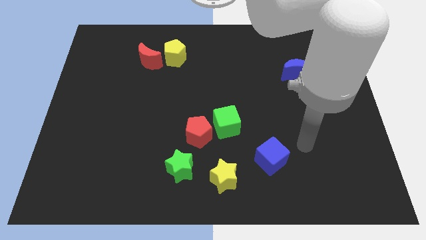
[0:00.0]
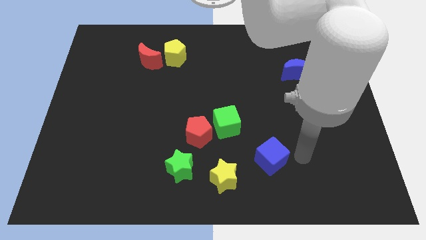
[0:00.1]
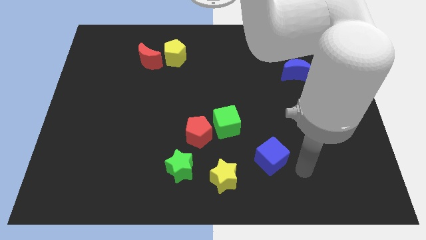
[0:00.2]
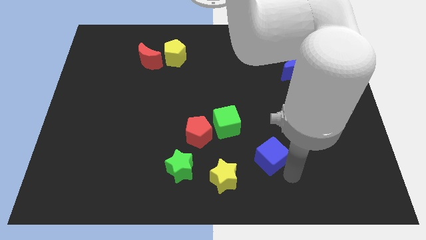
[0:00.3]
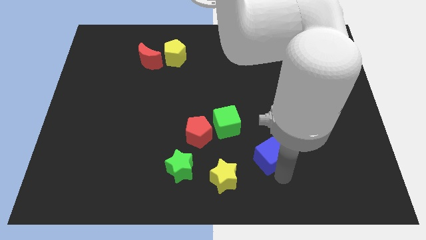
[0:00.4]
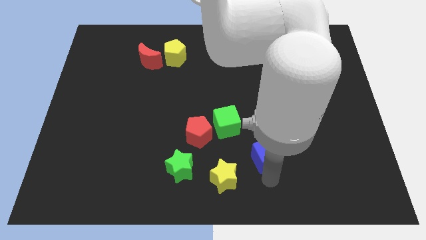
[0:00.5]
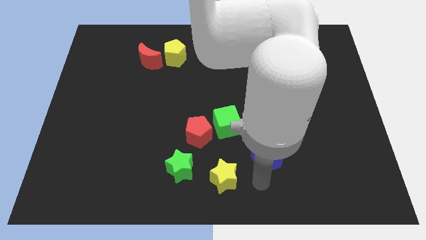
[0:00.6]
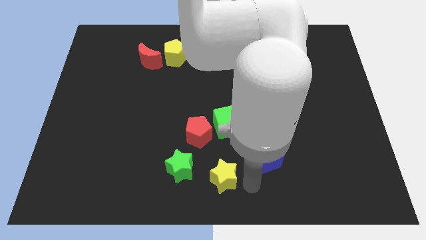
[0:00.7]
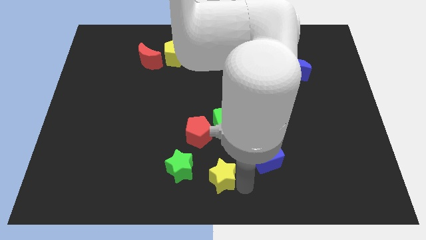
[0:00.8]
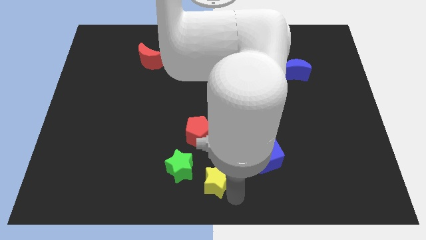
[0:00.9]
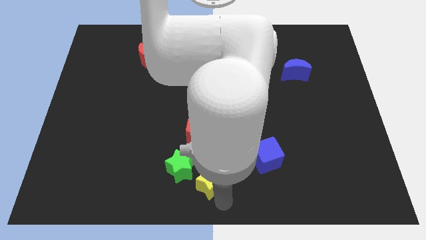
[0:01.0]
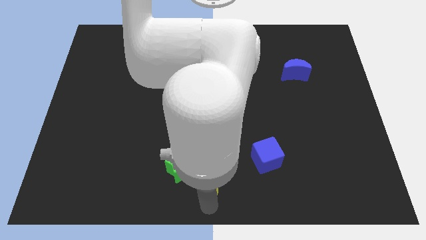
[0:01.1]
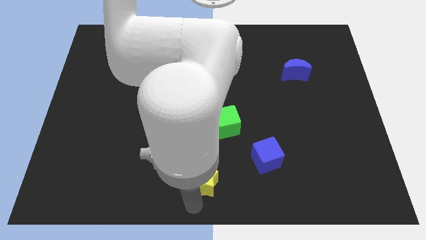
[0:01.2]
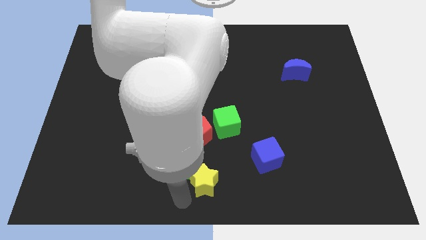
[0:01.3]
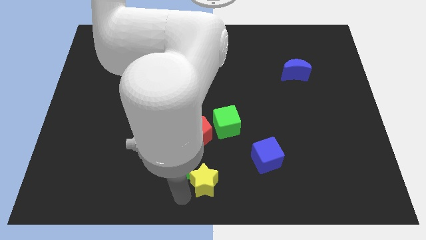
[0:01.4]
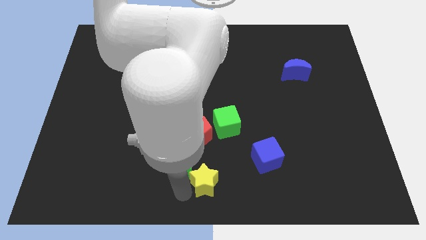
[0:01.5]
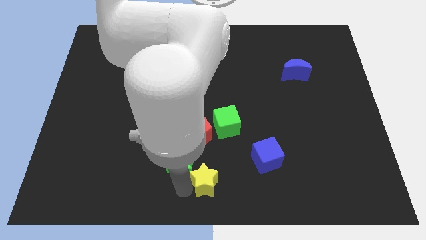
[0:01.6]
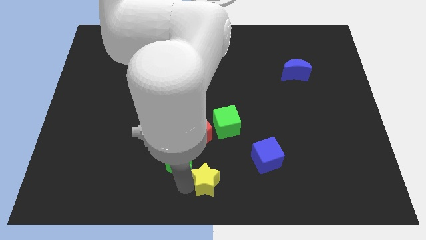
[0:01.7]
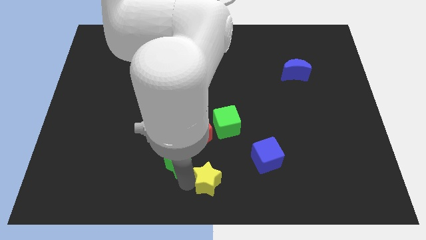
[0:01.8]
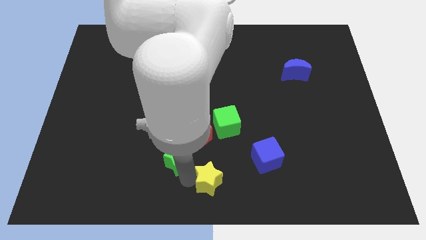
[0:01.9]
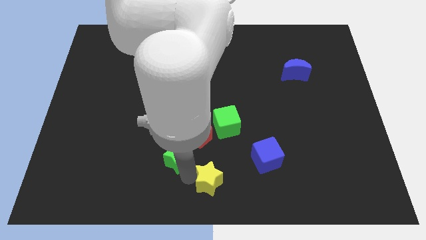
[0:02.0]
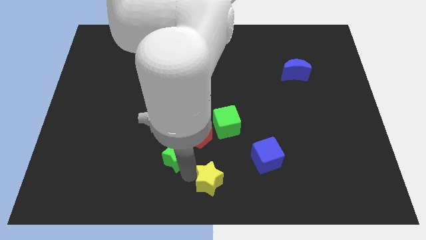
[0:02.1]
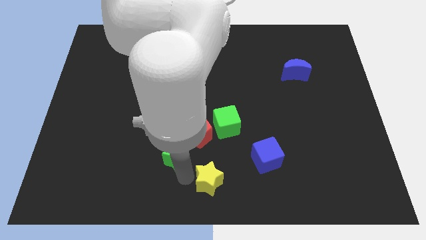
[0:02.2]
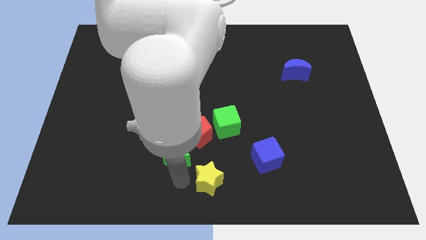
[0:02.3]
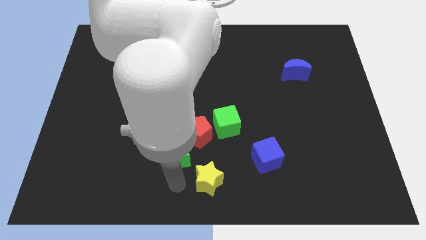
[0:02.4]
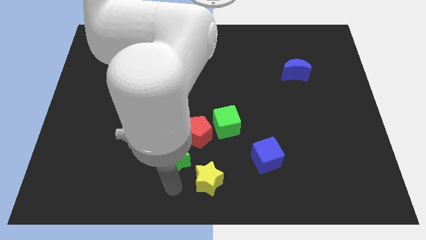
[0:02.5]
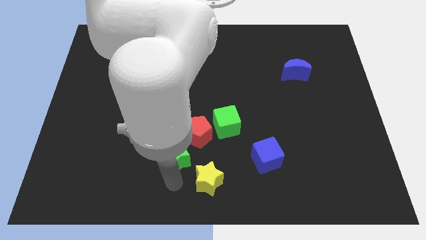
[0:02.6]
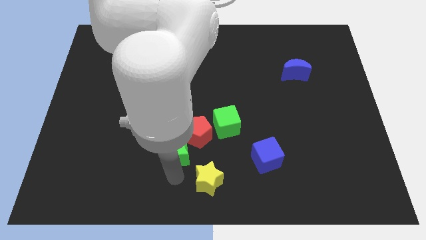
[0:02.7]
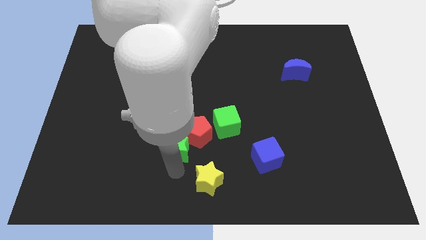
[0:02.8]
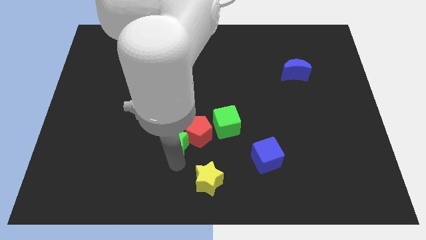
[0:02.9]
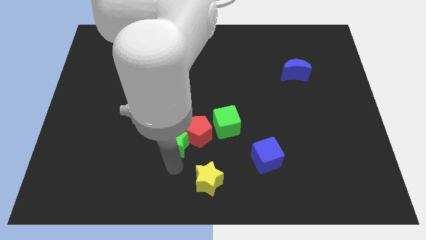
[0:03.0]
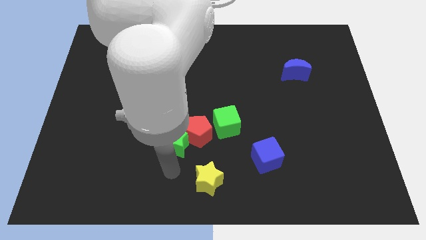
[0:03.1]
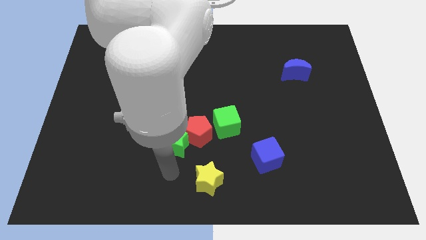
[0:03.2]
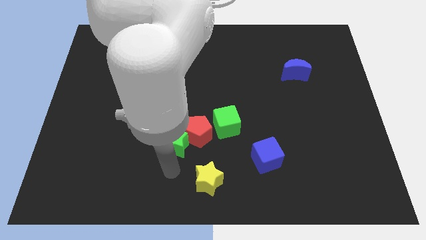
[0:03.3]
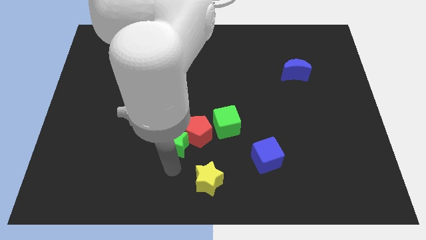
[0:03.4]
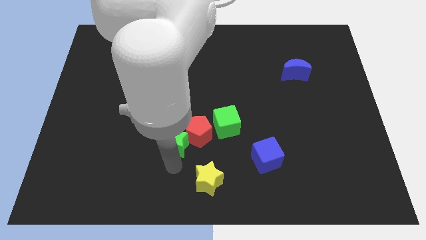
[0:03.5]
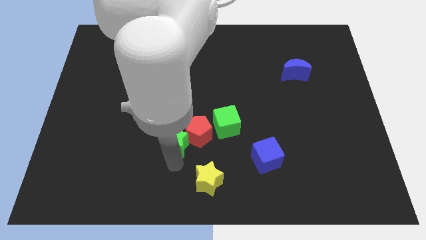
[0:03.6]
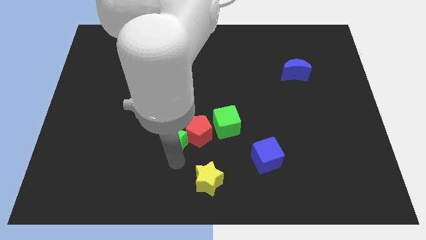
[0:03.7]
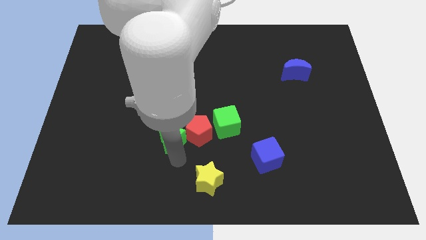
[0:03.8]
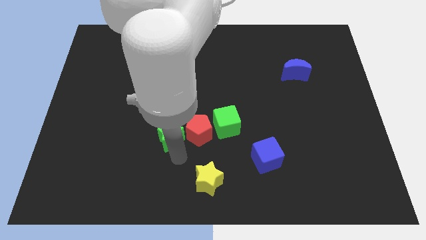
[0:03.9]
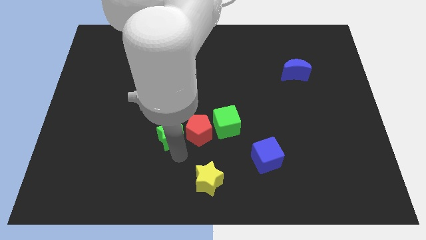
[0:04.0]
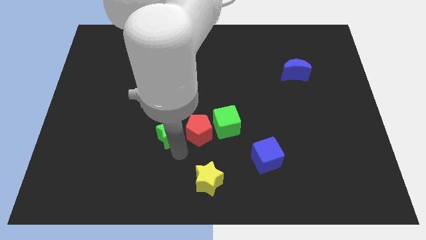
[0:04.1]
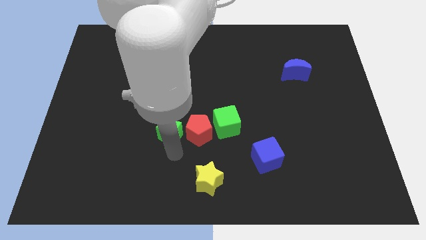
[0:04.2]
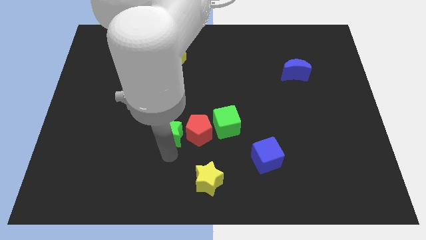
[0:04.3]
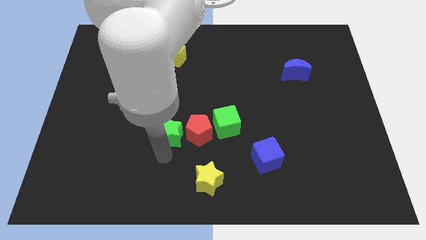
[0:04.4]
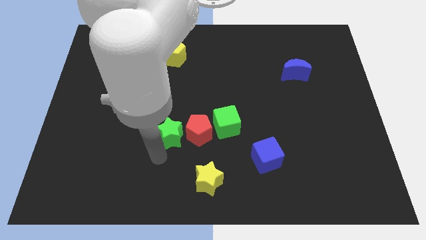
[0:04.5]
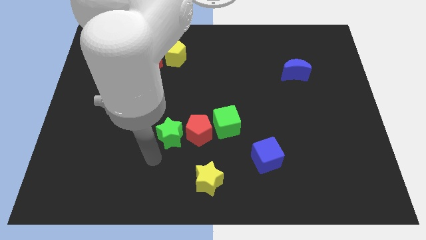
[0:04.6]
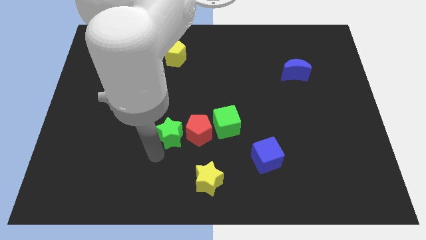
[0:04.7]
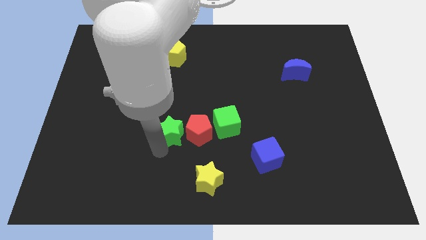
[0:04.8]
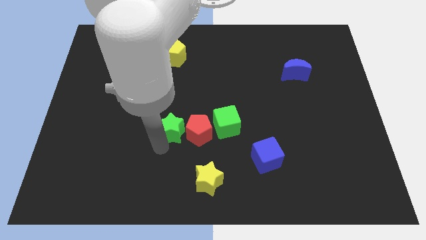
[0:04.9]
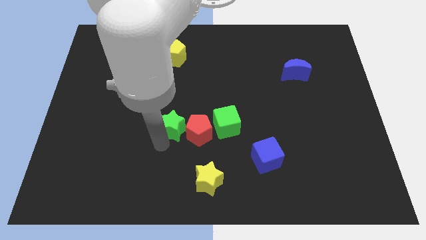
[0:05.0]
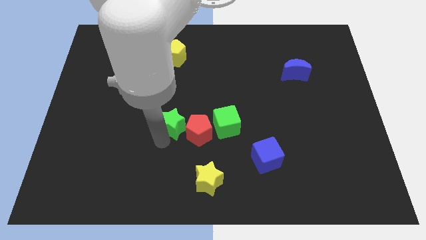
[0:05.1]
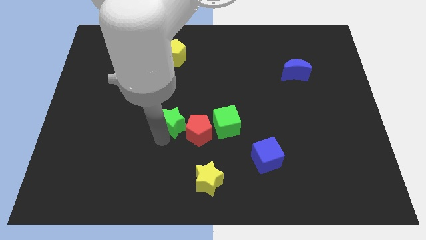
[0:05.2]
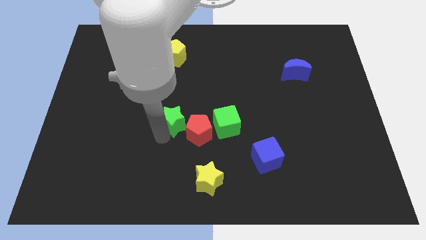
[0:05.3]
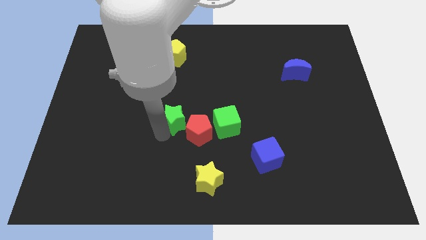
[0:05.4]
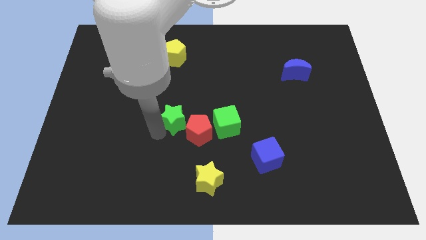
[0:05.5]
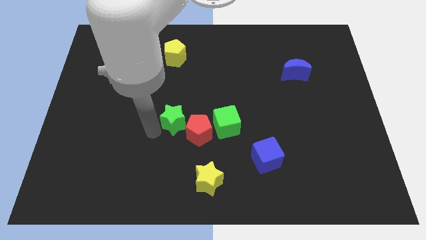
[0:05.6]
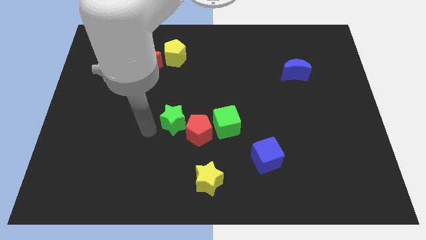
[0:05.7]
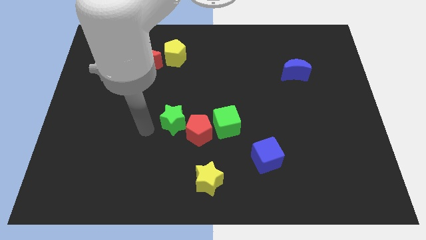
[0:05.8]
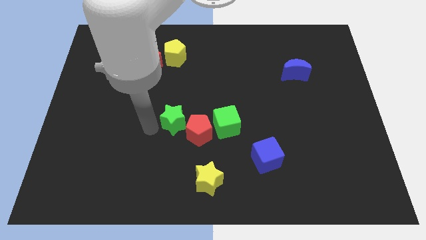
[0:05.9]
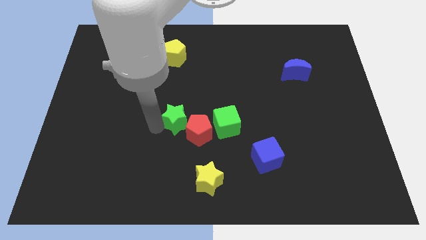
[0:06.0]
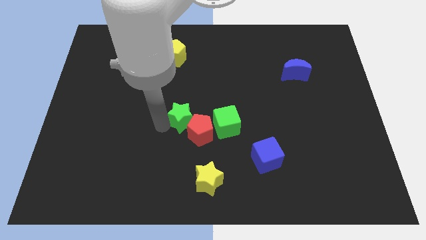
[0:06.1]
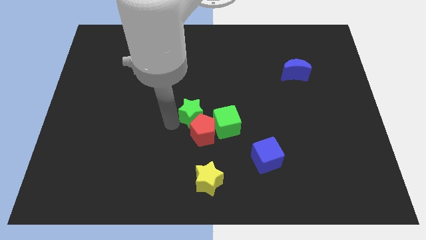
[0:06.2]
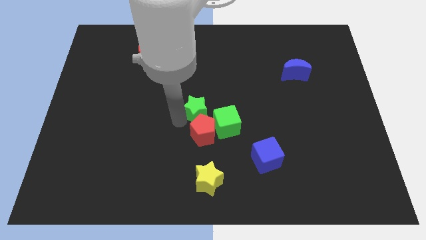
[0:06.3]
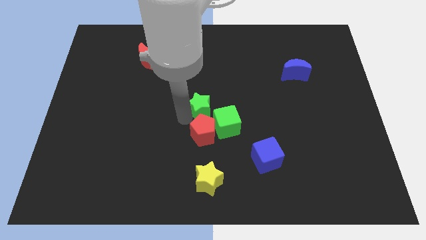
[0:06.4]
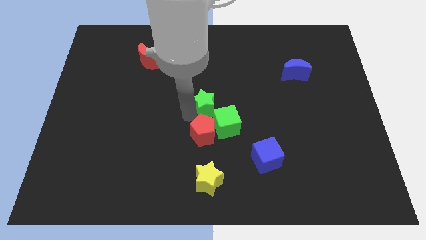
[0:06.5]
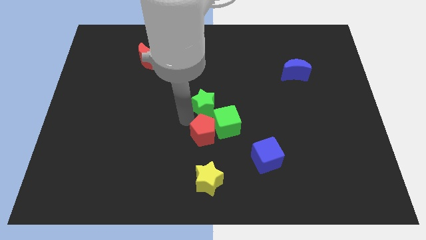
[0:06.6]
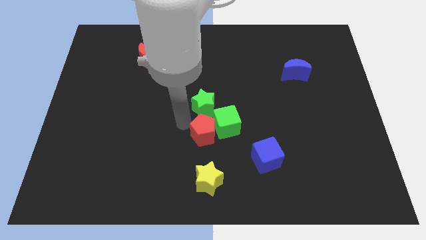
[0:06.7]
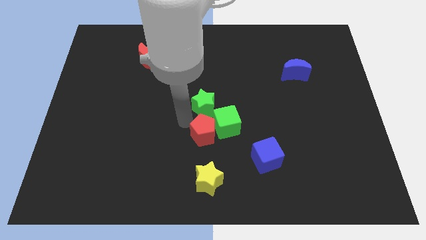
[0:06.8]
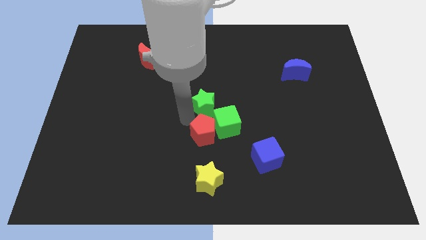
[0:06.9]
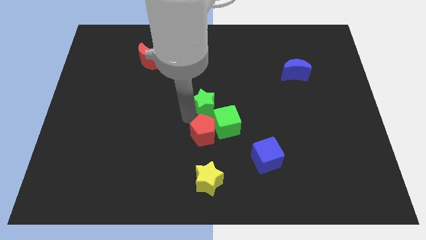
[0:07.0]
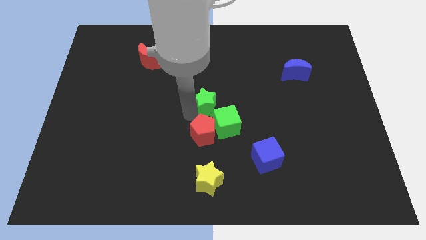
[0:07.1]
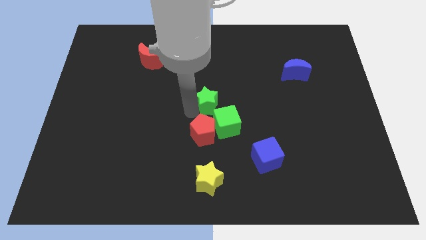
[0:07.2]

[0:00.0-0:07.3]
move the green star above the green cube

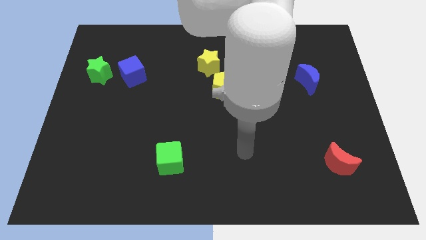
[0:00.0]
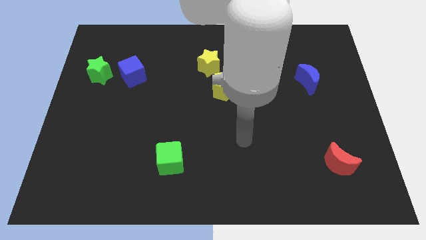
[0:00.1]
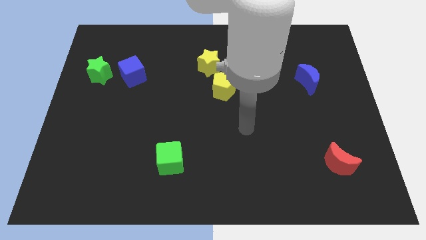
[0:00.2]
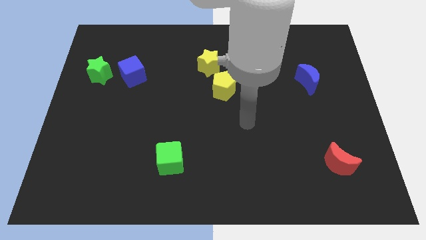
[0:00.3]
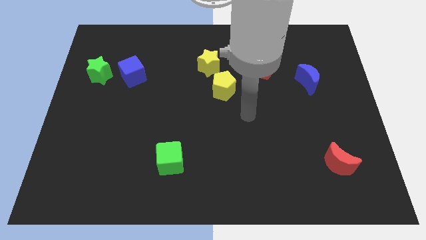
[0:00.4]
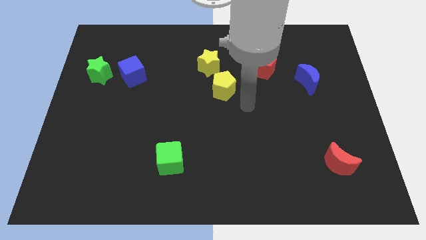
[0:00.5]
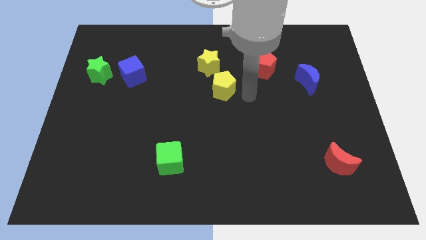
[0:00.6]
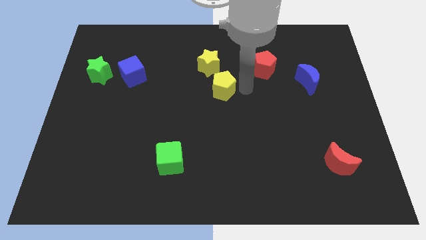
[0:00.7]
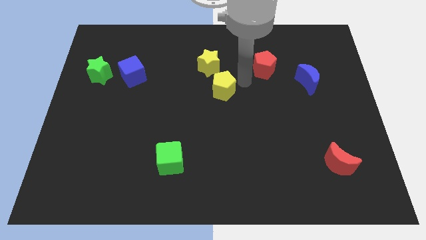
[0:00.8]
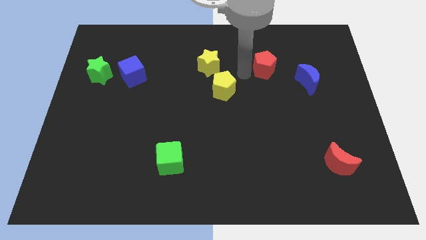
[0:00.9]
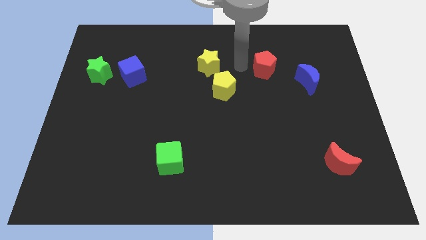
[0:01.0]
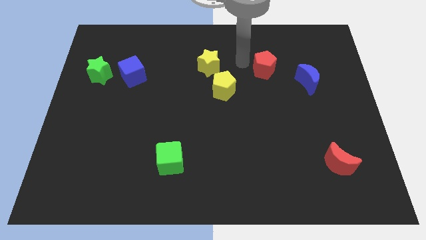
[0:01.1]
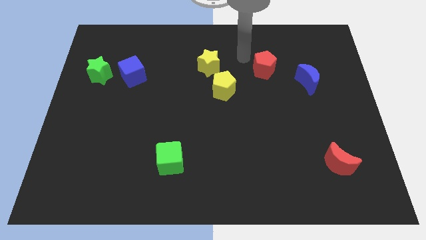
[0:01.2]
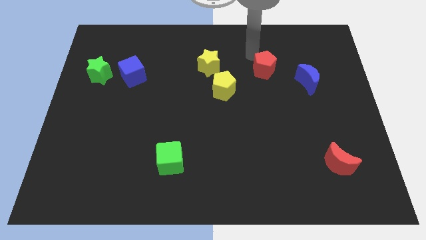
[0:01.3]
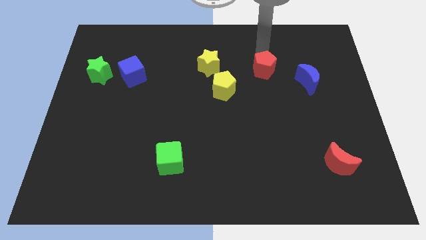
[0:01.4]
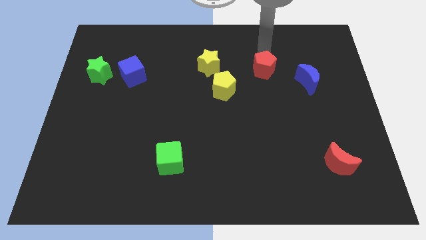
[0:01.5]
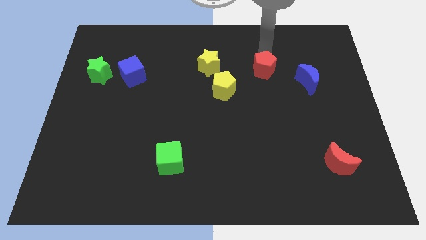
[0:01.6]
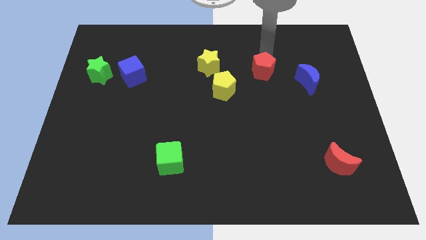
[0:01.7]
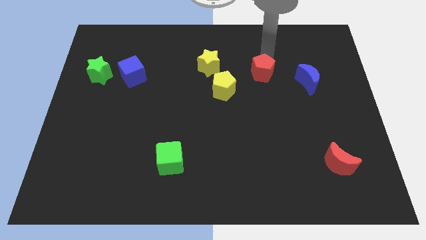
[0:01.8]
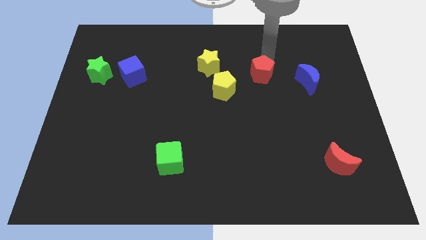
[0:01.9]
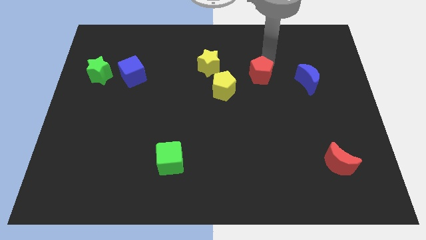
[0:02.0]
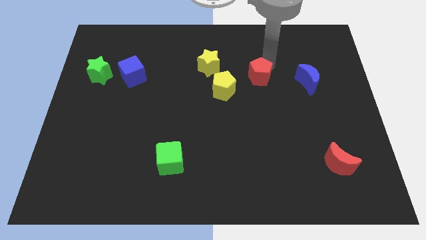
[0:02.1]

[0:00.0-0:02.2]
slide the red pentagon to the right of the yellow pentagon
